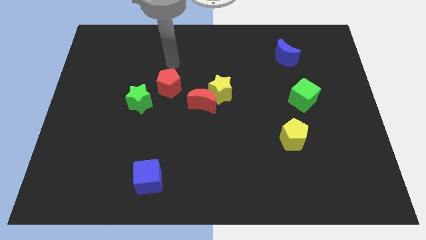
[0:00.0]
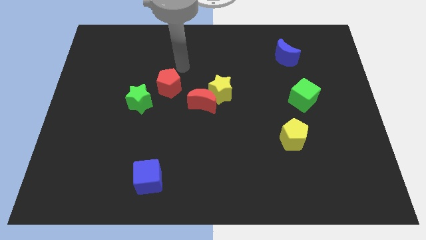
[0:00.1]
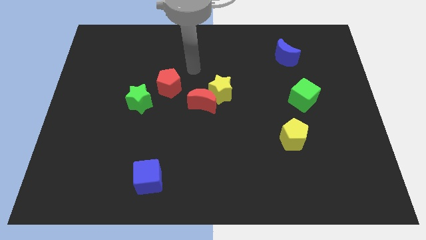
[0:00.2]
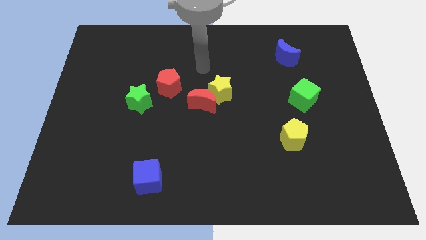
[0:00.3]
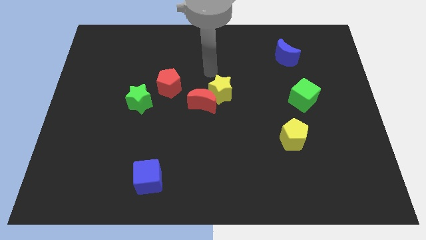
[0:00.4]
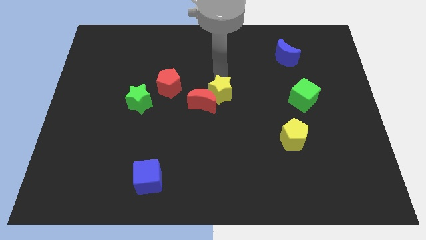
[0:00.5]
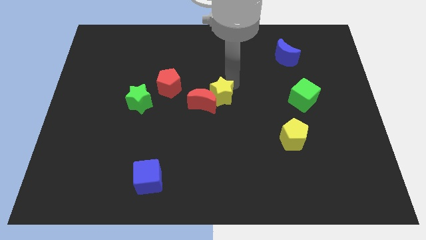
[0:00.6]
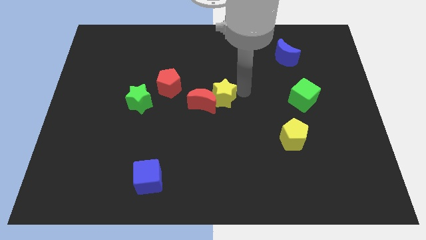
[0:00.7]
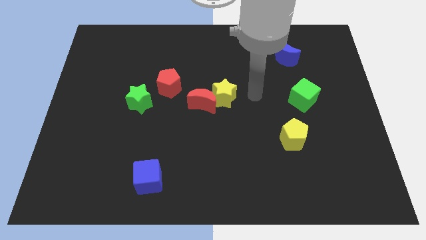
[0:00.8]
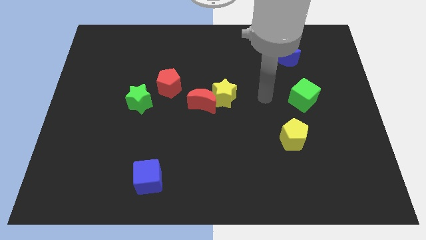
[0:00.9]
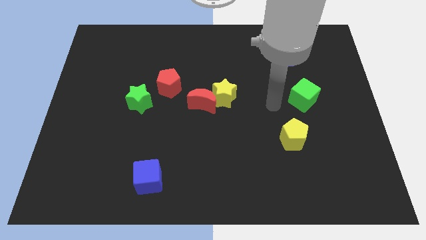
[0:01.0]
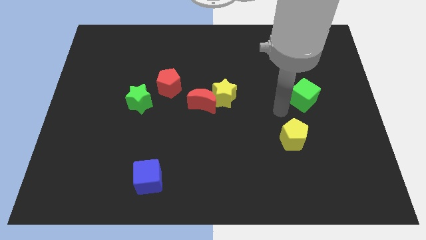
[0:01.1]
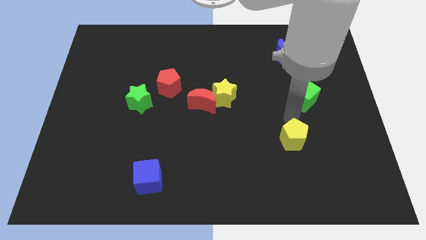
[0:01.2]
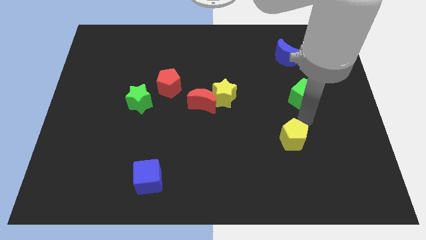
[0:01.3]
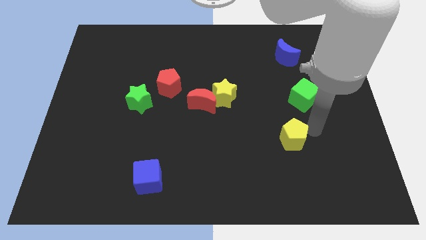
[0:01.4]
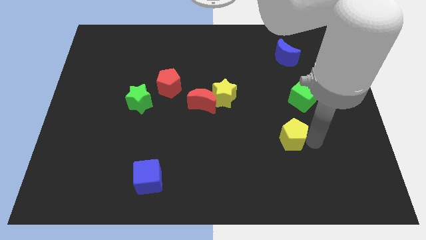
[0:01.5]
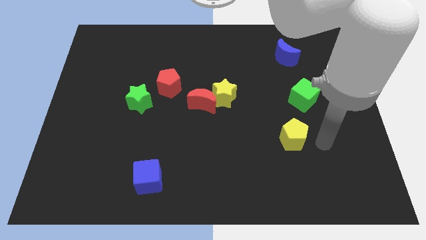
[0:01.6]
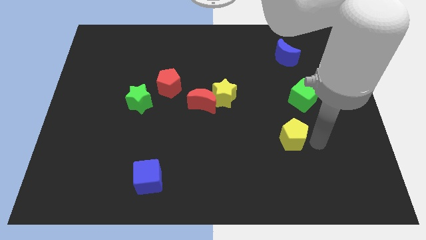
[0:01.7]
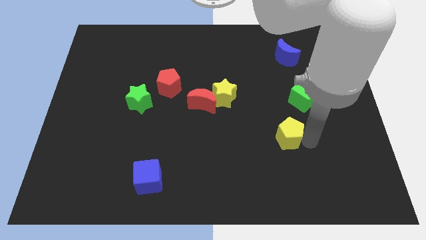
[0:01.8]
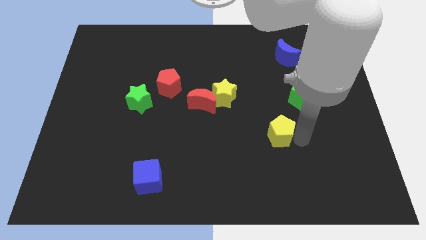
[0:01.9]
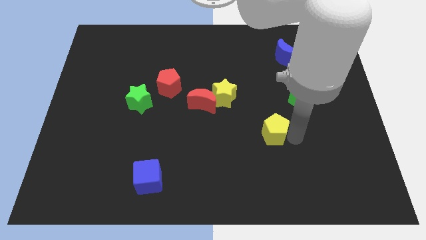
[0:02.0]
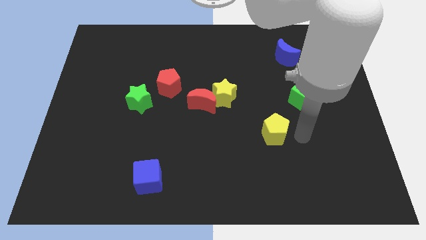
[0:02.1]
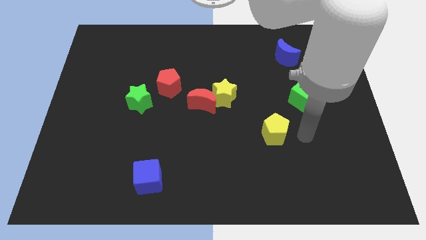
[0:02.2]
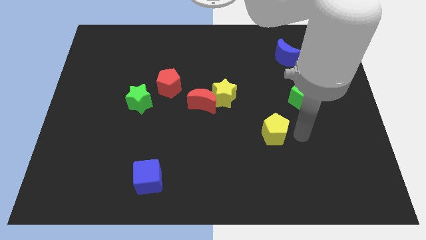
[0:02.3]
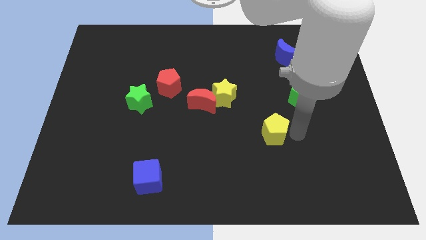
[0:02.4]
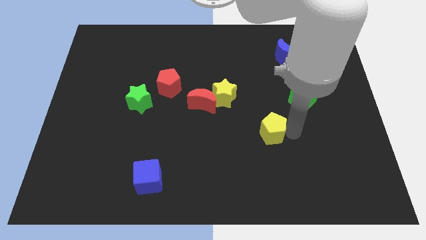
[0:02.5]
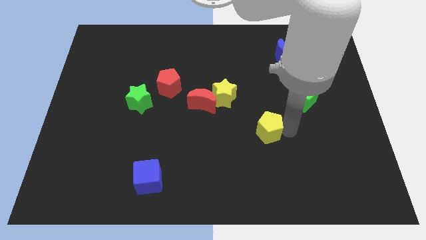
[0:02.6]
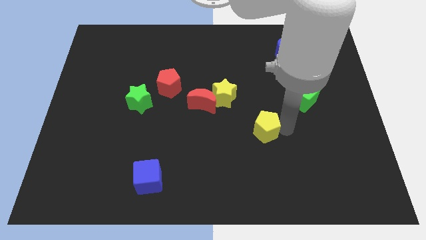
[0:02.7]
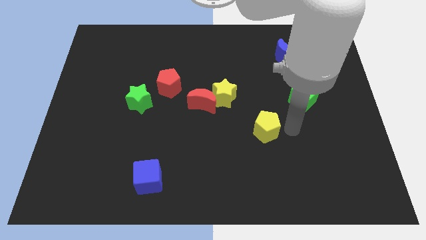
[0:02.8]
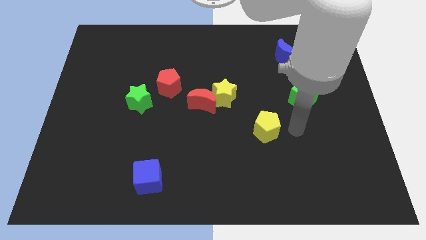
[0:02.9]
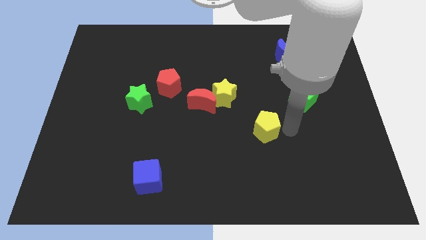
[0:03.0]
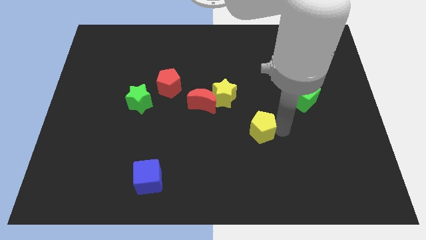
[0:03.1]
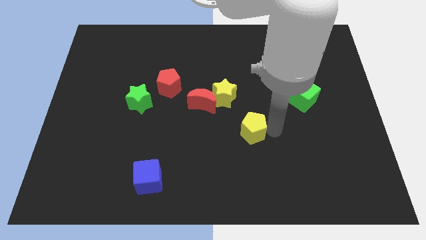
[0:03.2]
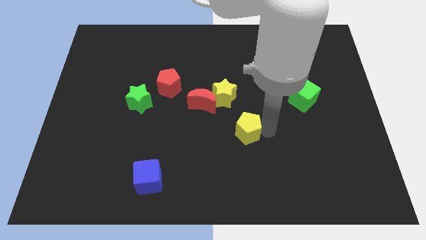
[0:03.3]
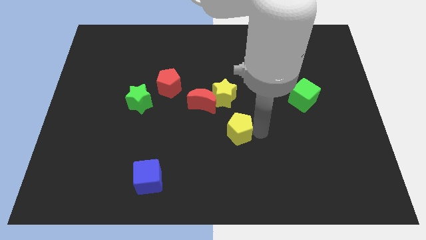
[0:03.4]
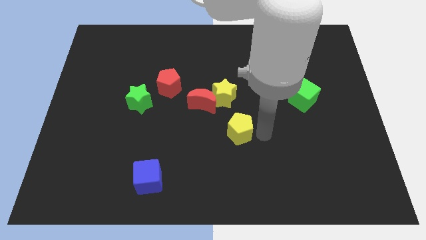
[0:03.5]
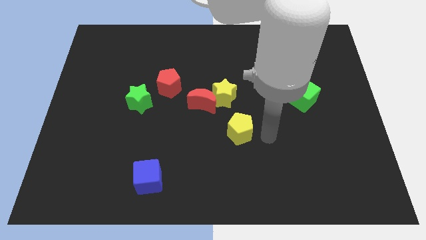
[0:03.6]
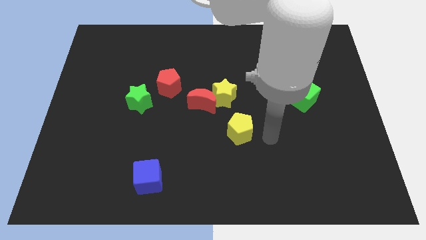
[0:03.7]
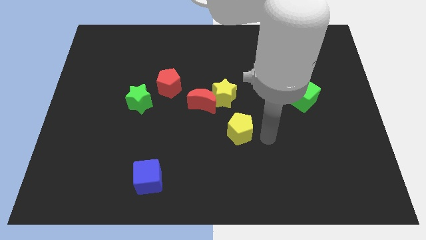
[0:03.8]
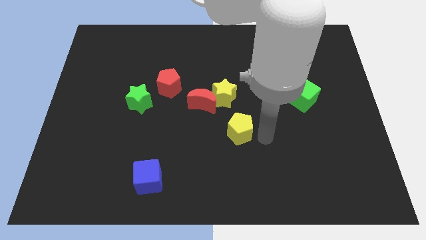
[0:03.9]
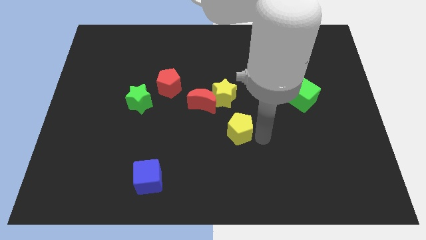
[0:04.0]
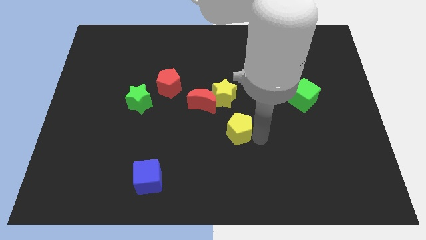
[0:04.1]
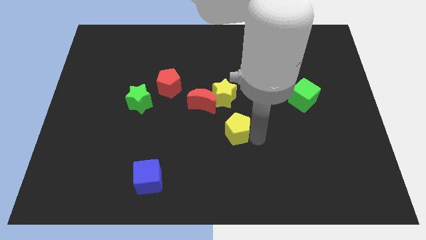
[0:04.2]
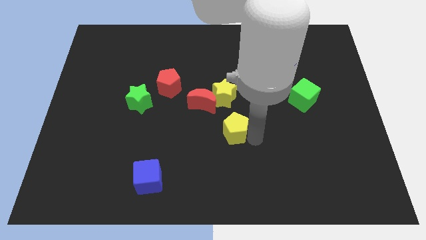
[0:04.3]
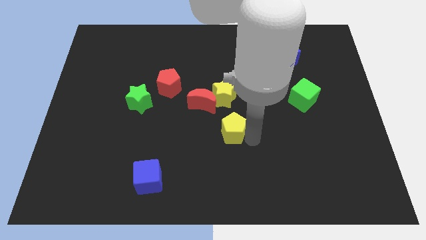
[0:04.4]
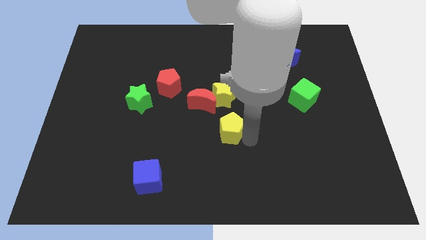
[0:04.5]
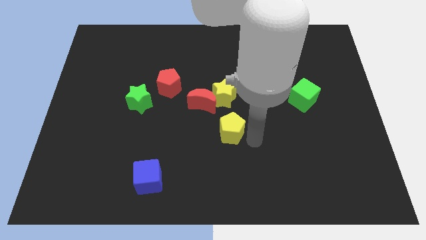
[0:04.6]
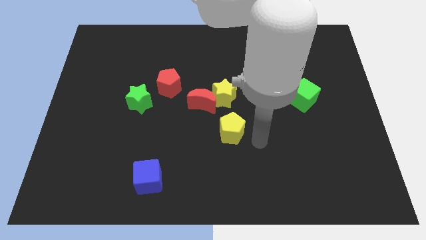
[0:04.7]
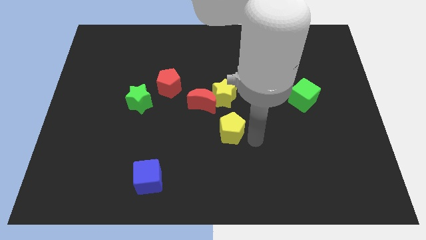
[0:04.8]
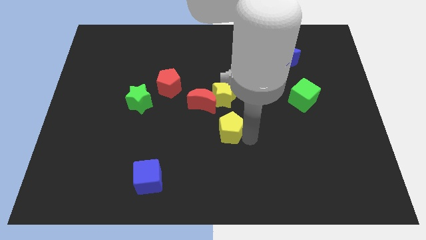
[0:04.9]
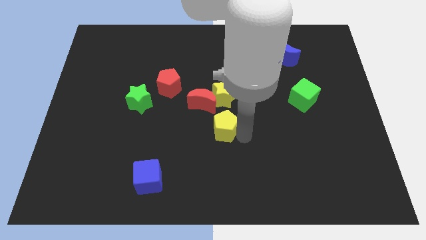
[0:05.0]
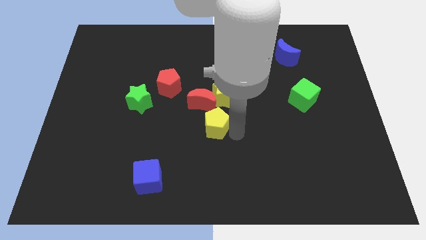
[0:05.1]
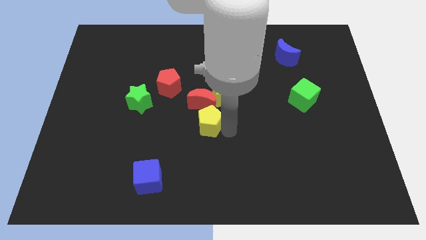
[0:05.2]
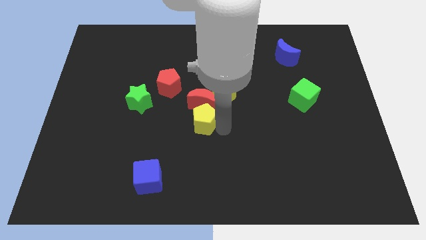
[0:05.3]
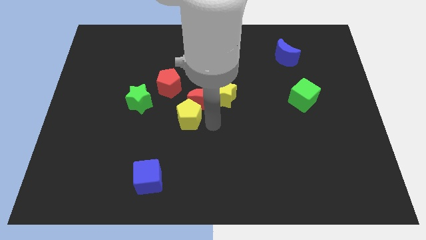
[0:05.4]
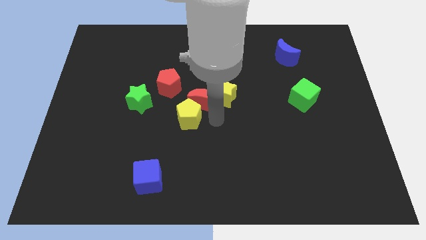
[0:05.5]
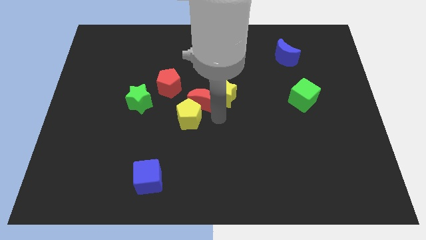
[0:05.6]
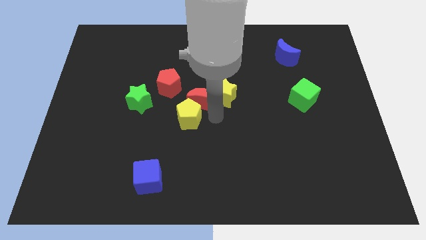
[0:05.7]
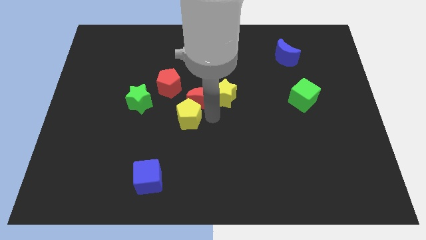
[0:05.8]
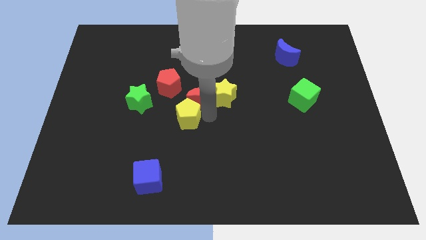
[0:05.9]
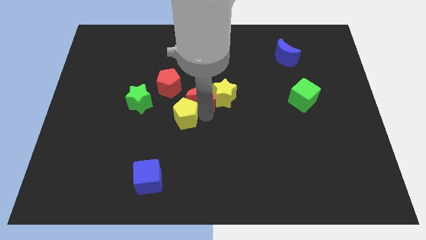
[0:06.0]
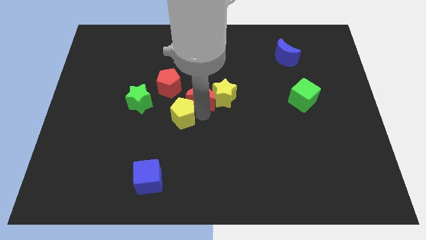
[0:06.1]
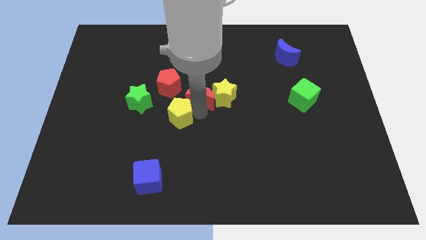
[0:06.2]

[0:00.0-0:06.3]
slide the yellow pentagon to the bottom right side of the green star
